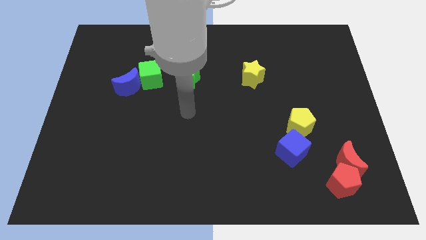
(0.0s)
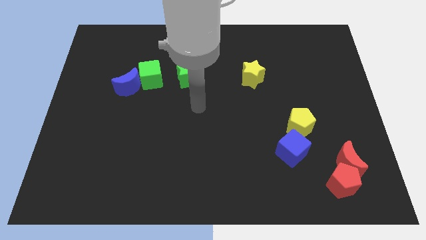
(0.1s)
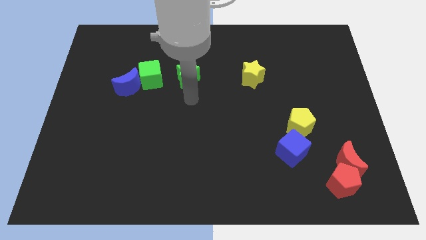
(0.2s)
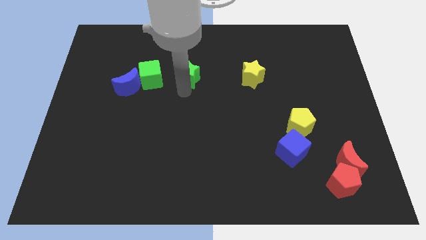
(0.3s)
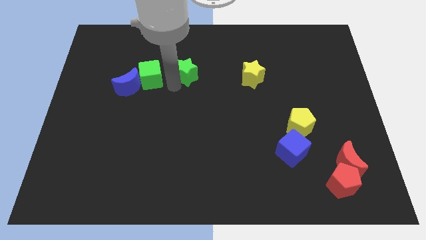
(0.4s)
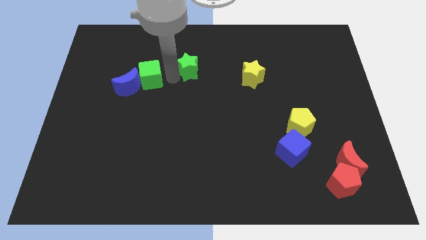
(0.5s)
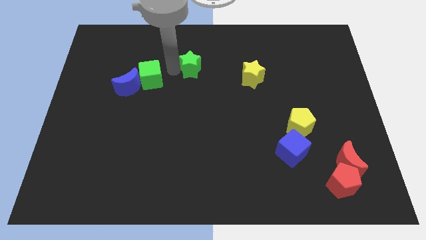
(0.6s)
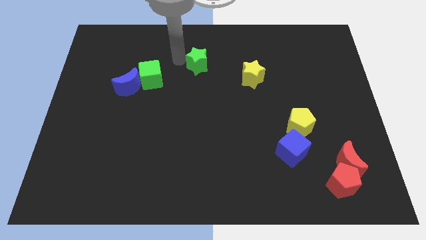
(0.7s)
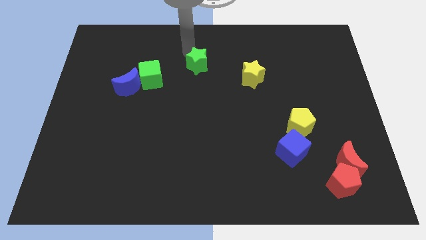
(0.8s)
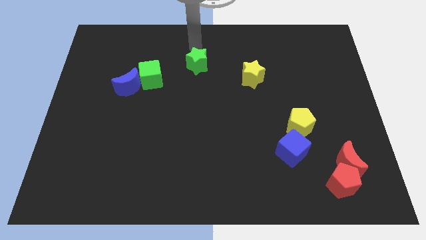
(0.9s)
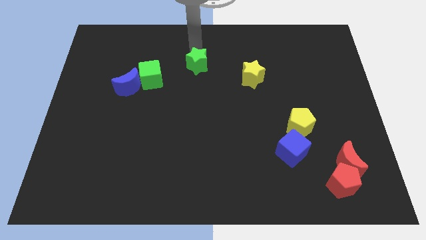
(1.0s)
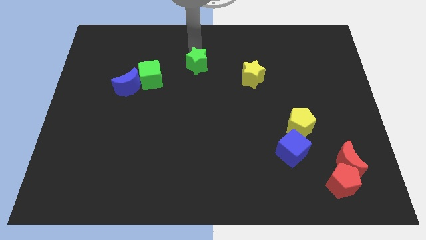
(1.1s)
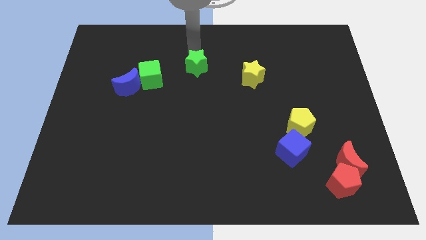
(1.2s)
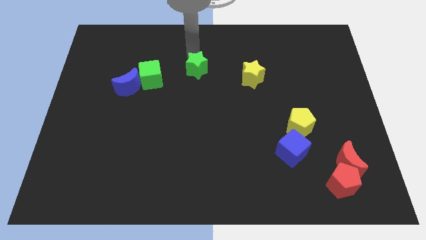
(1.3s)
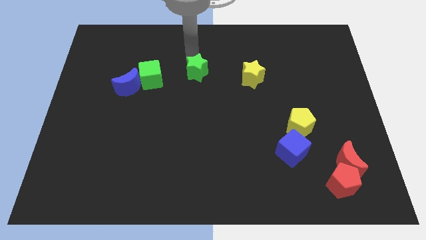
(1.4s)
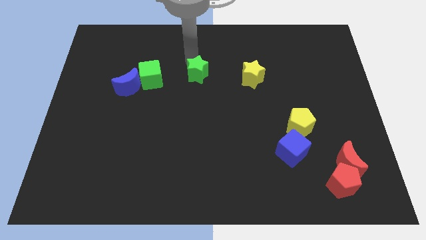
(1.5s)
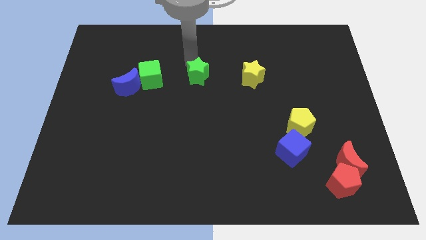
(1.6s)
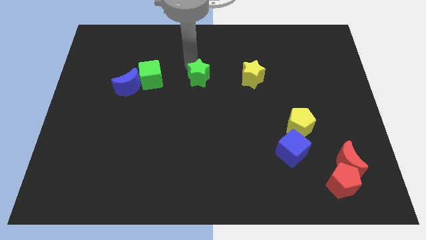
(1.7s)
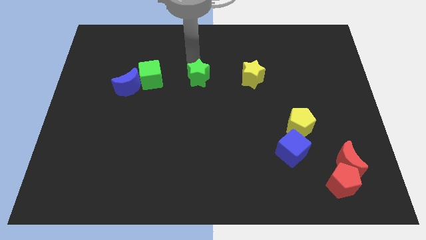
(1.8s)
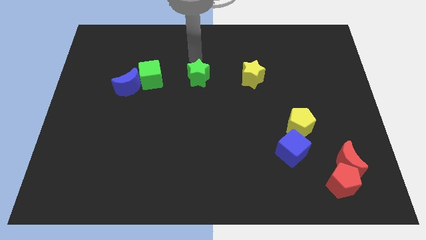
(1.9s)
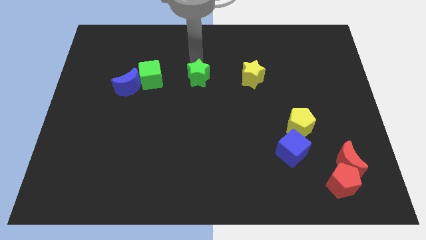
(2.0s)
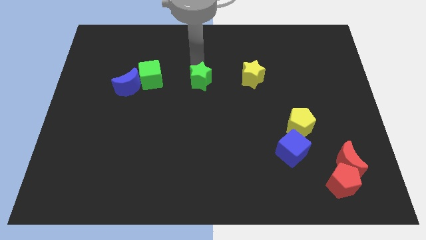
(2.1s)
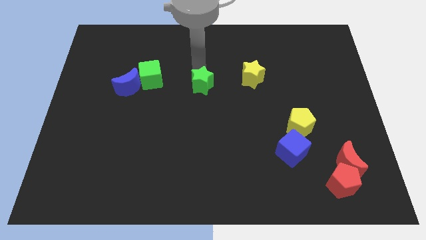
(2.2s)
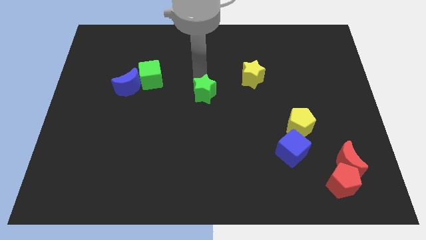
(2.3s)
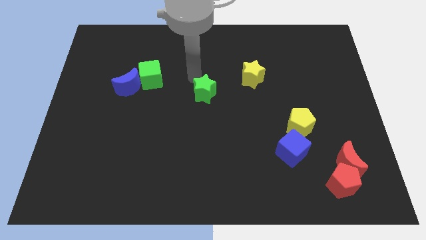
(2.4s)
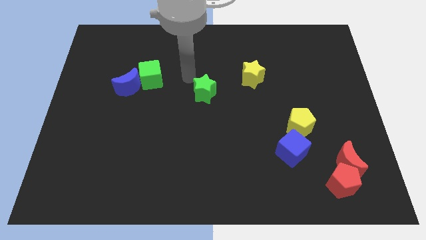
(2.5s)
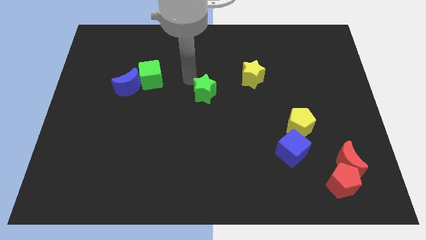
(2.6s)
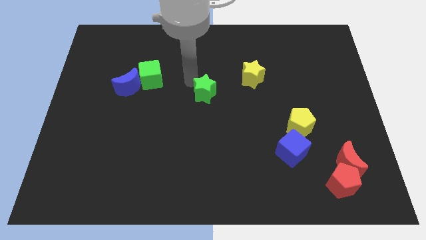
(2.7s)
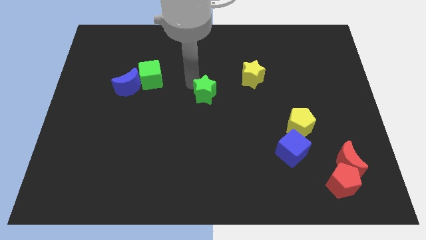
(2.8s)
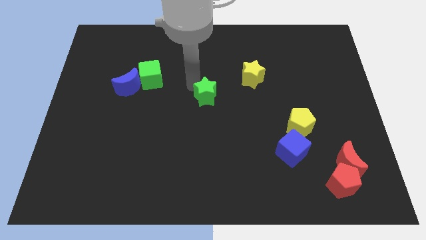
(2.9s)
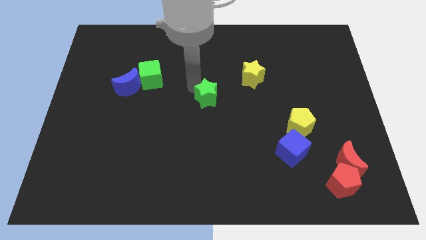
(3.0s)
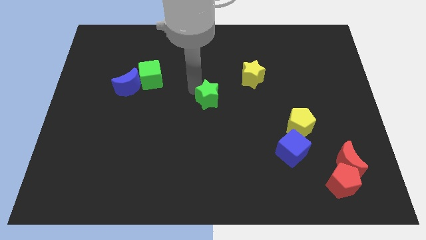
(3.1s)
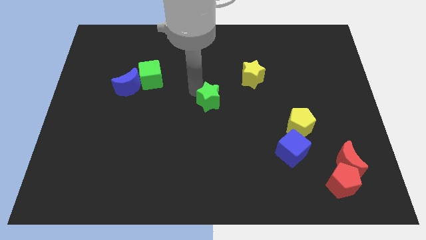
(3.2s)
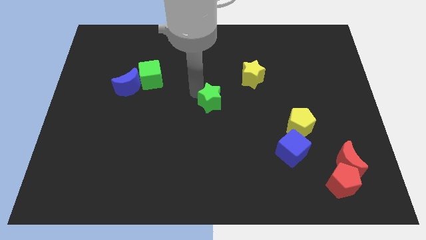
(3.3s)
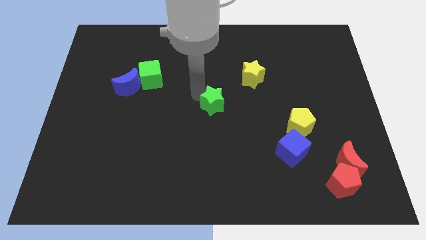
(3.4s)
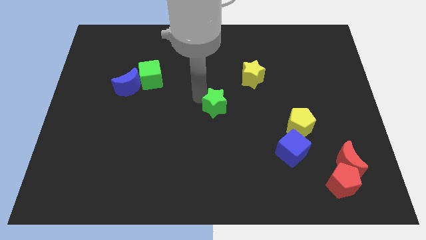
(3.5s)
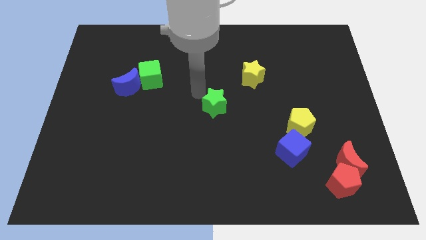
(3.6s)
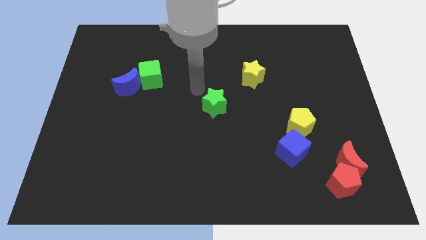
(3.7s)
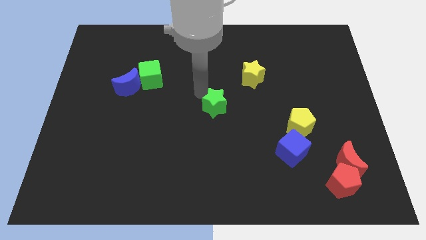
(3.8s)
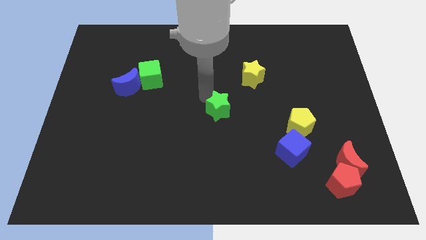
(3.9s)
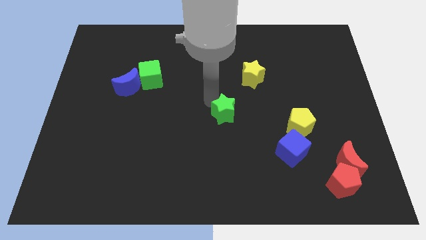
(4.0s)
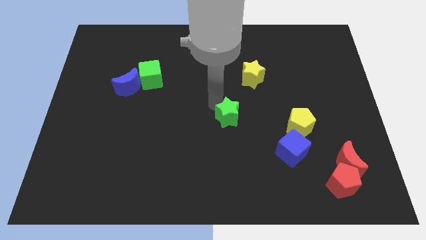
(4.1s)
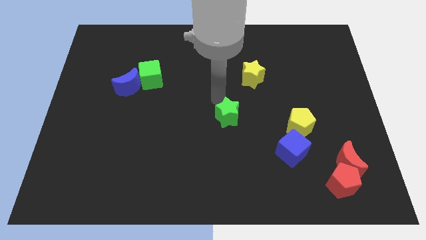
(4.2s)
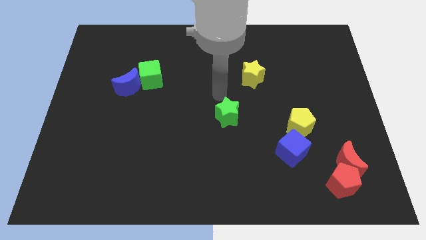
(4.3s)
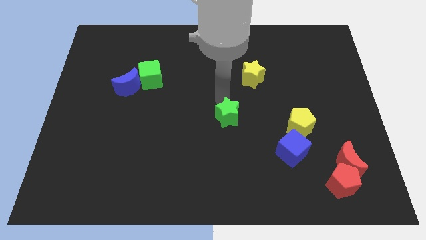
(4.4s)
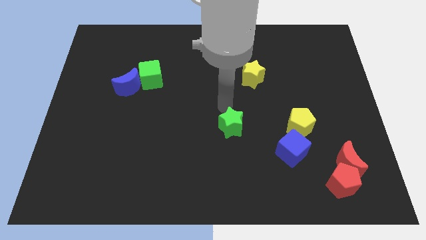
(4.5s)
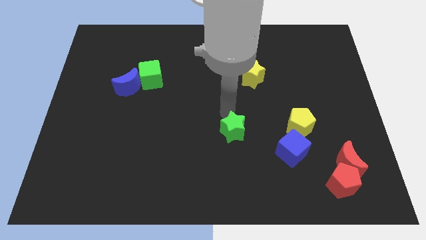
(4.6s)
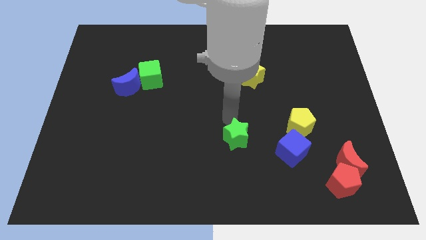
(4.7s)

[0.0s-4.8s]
put the green star to the left side of the blue cube

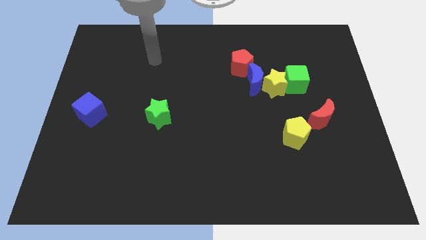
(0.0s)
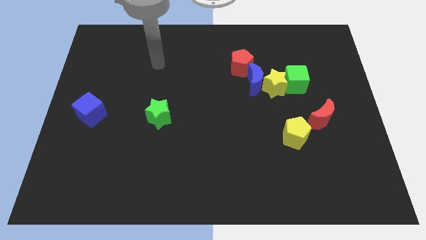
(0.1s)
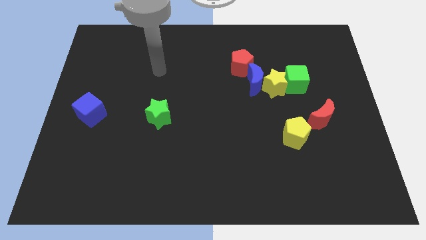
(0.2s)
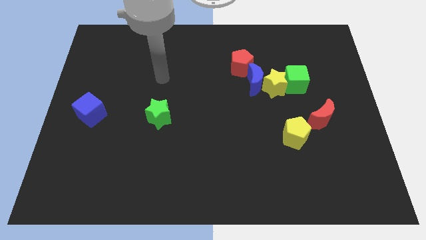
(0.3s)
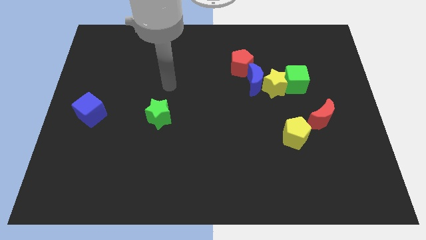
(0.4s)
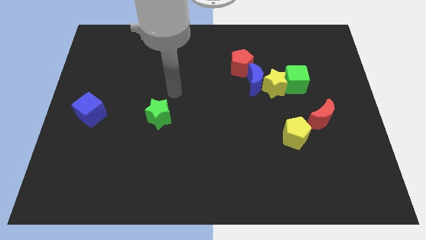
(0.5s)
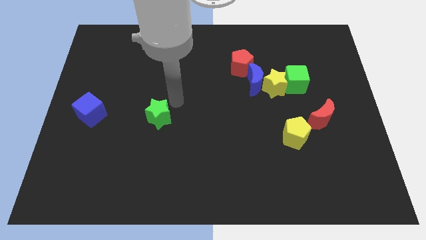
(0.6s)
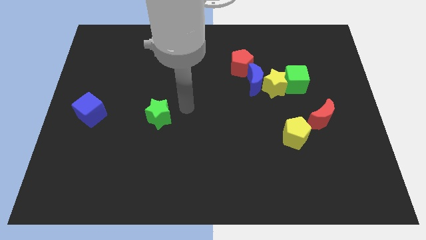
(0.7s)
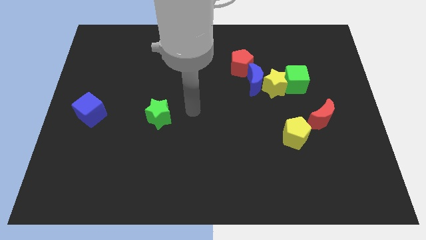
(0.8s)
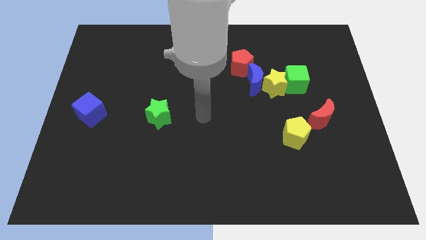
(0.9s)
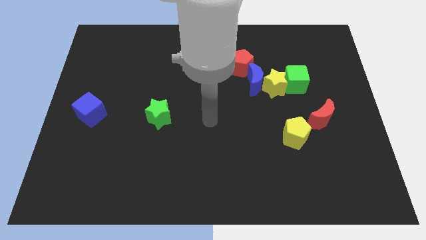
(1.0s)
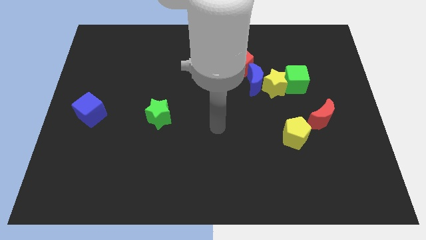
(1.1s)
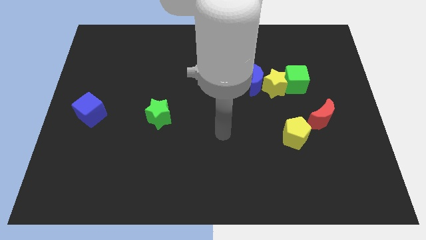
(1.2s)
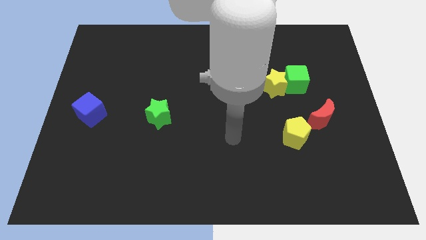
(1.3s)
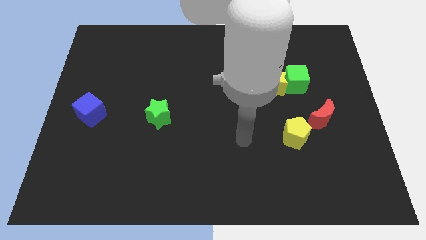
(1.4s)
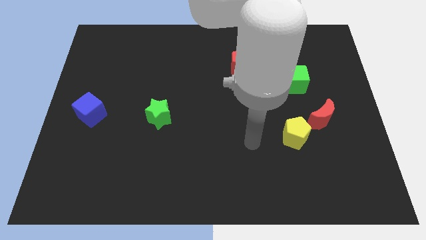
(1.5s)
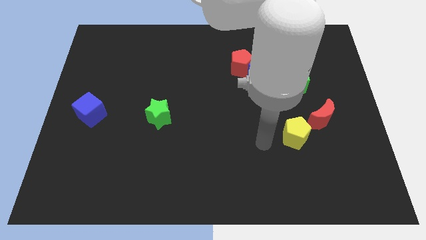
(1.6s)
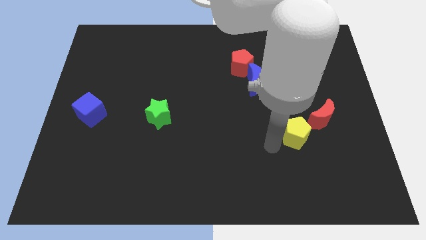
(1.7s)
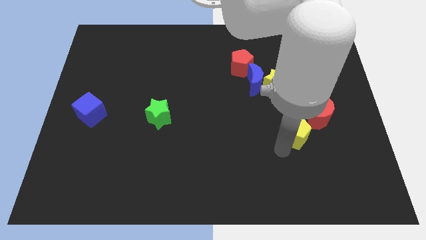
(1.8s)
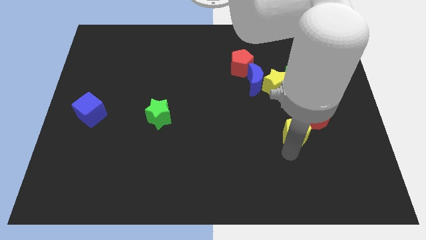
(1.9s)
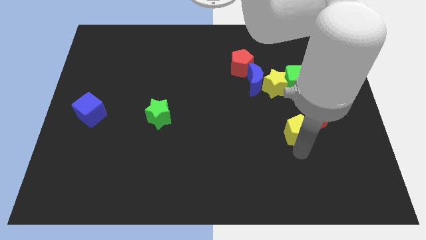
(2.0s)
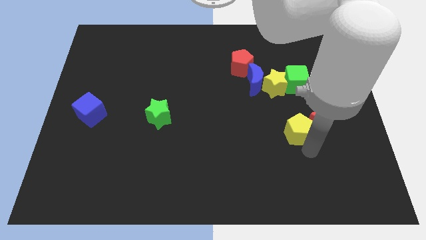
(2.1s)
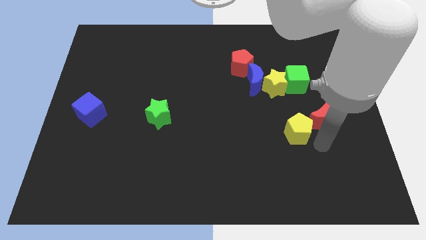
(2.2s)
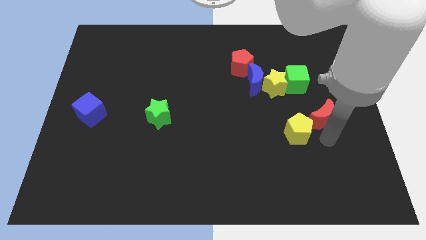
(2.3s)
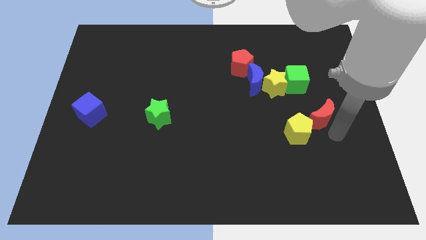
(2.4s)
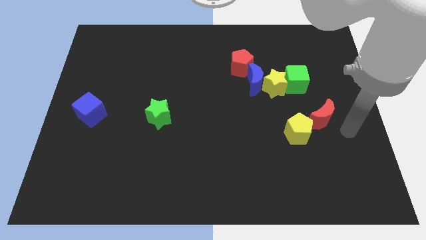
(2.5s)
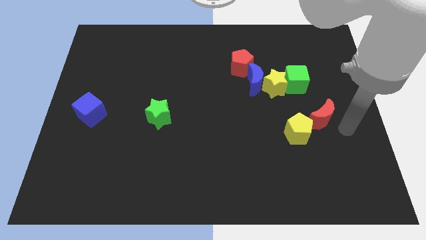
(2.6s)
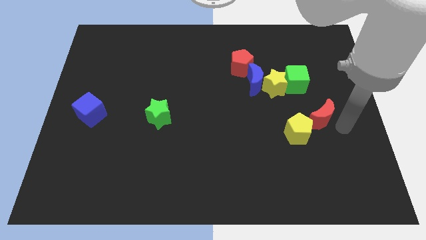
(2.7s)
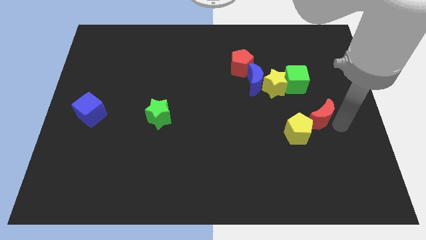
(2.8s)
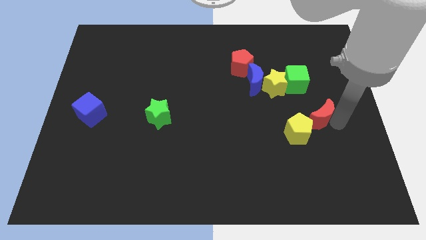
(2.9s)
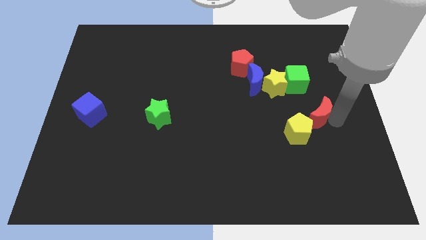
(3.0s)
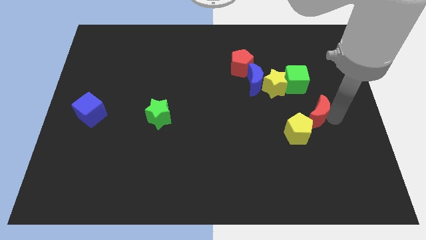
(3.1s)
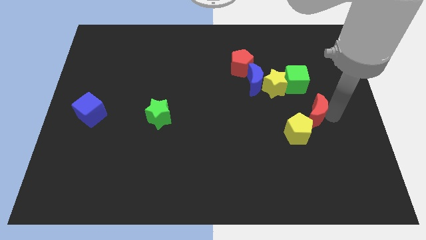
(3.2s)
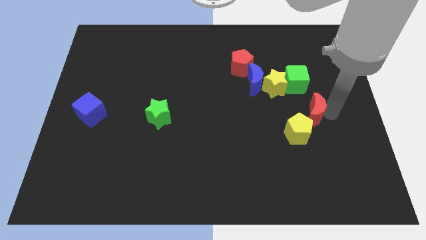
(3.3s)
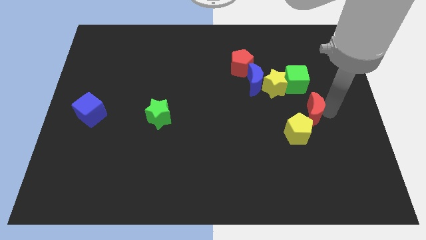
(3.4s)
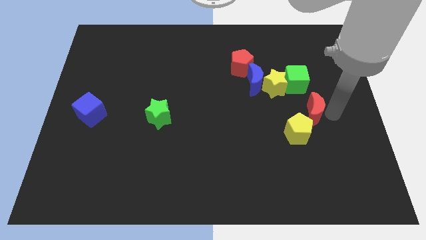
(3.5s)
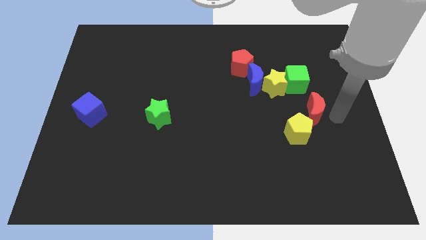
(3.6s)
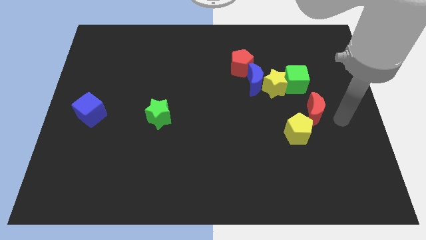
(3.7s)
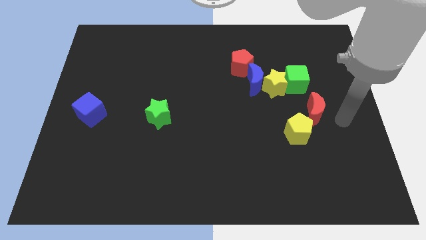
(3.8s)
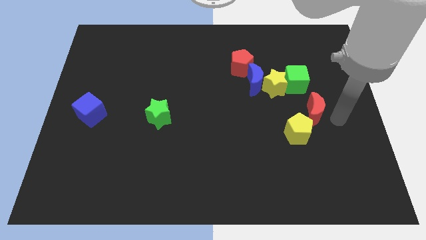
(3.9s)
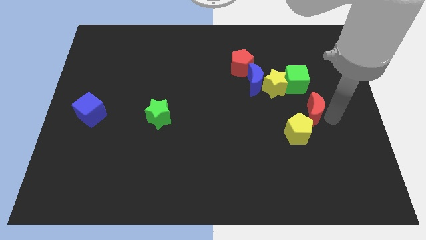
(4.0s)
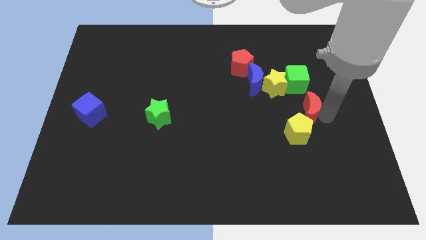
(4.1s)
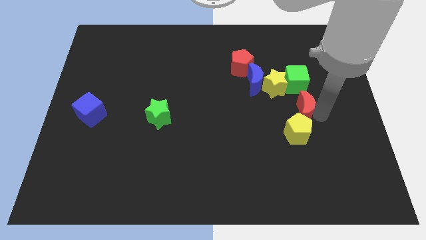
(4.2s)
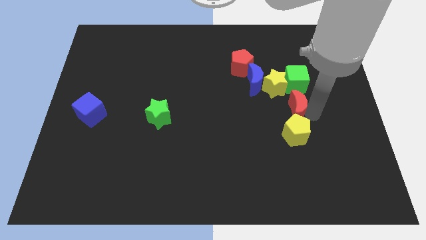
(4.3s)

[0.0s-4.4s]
move the red moon diagonally down and to the right of the blue moon
